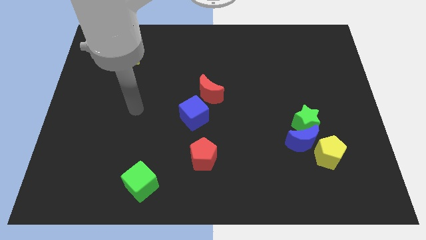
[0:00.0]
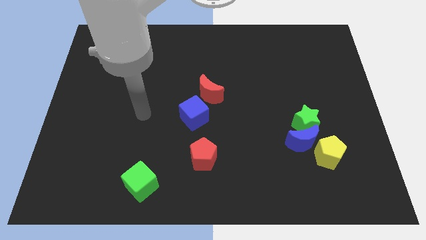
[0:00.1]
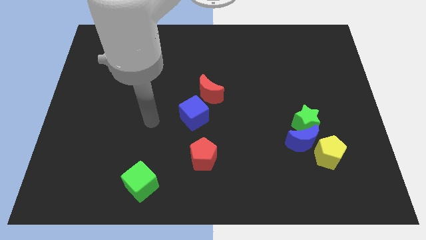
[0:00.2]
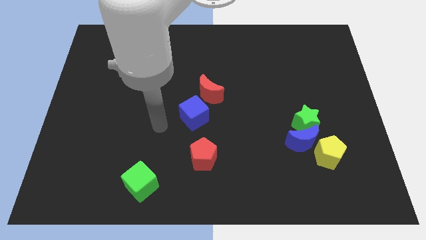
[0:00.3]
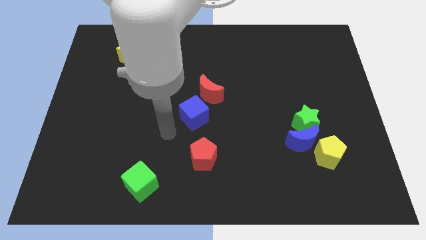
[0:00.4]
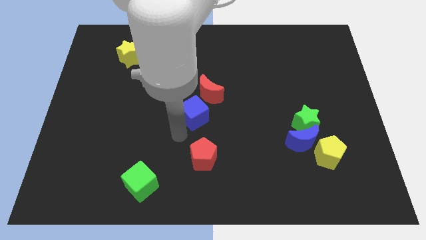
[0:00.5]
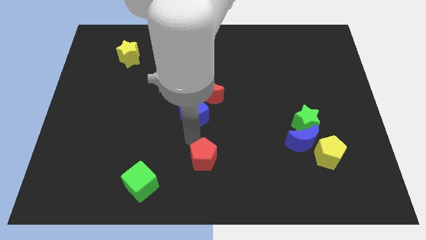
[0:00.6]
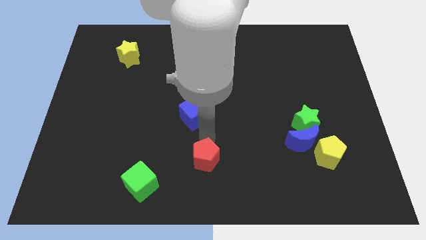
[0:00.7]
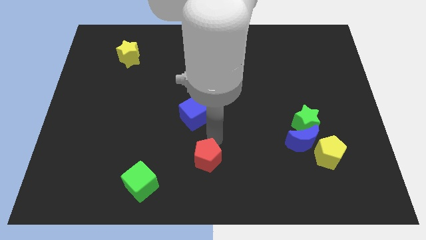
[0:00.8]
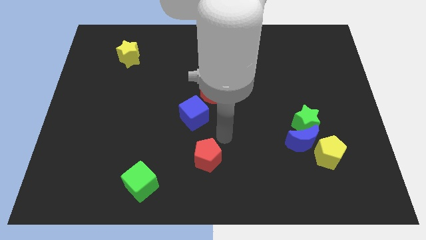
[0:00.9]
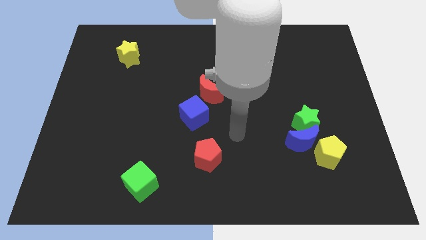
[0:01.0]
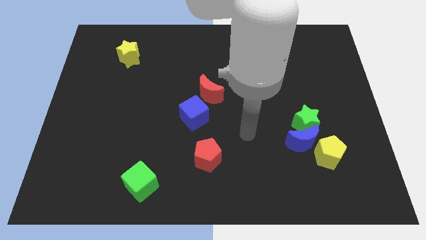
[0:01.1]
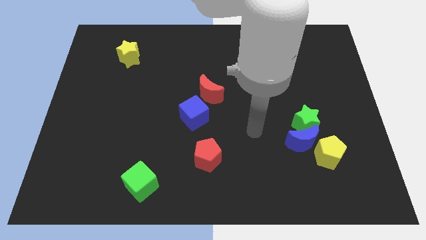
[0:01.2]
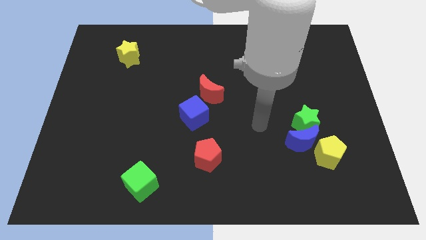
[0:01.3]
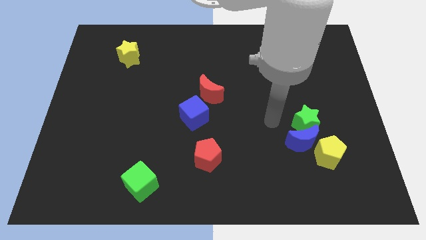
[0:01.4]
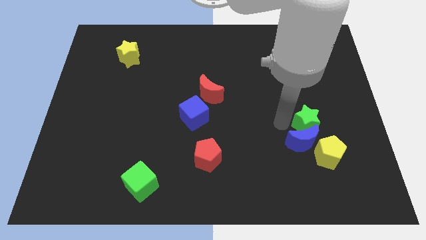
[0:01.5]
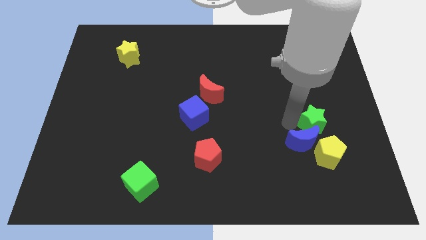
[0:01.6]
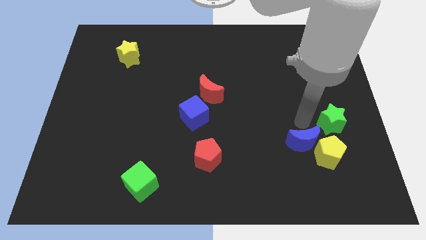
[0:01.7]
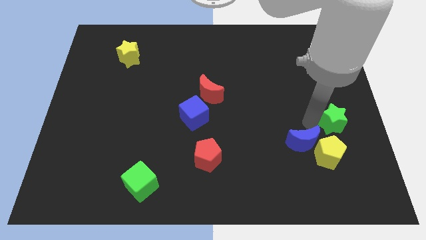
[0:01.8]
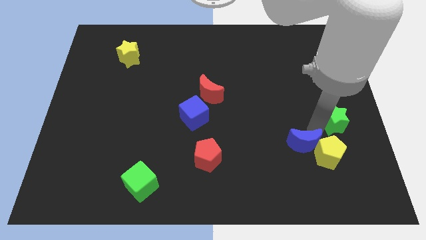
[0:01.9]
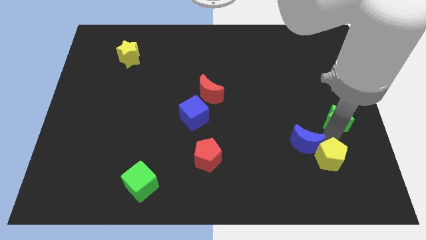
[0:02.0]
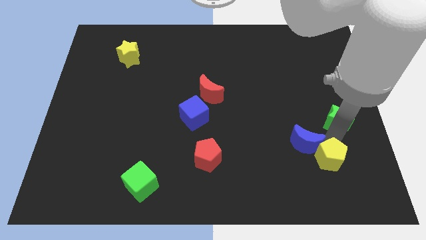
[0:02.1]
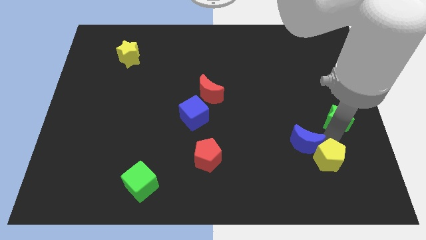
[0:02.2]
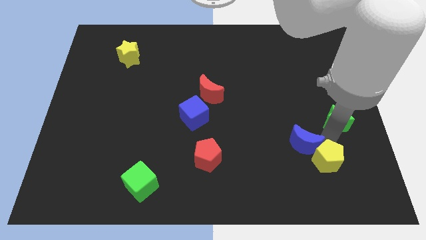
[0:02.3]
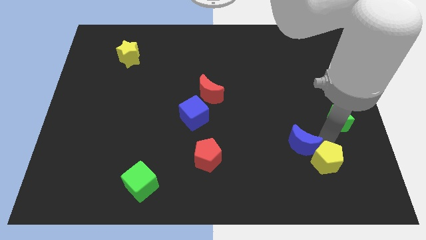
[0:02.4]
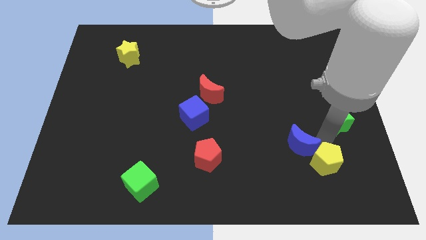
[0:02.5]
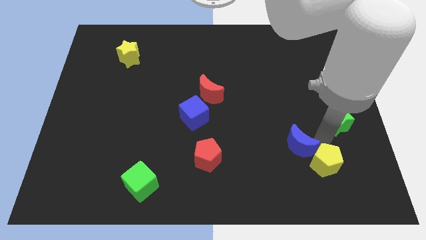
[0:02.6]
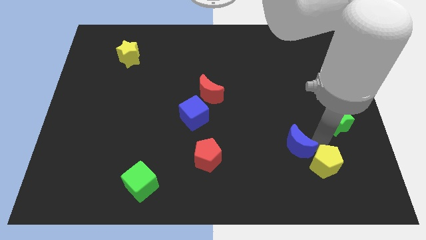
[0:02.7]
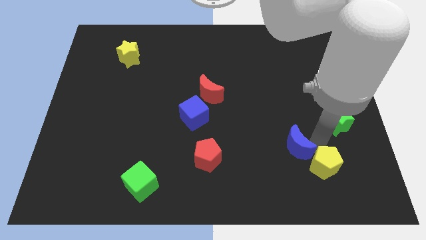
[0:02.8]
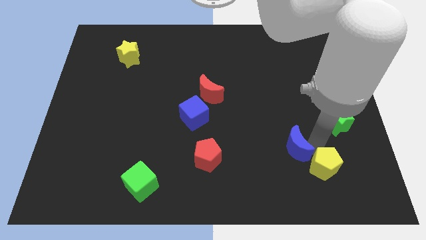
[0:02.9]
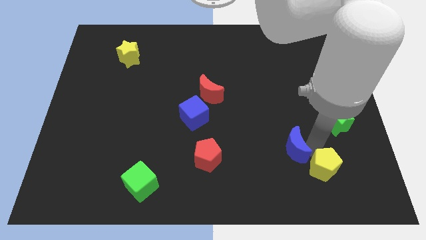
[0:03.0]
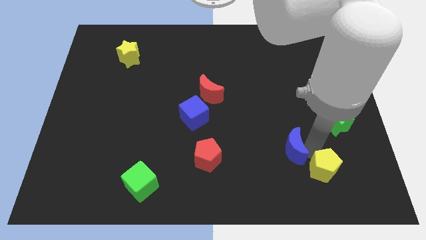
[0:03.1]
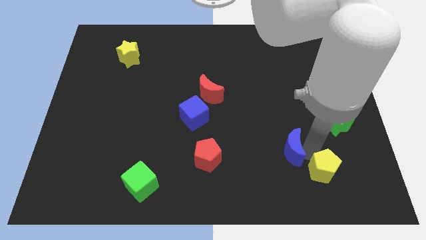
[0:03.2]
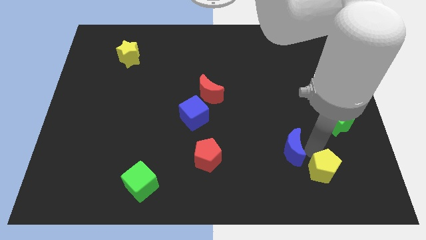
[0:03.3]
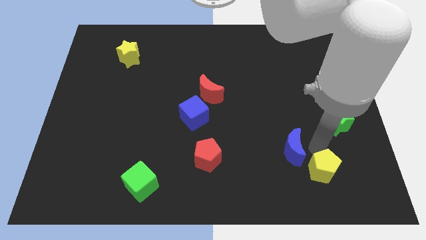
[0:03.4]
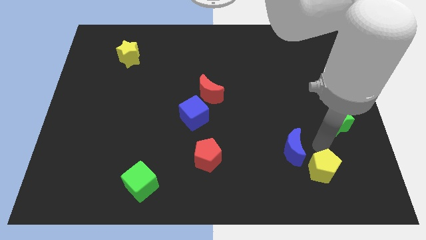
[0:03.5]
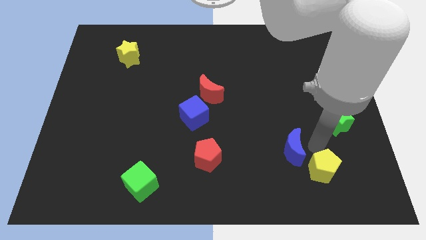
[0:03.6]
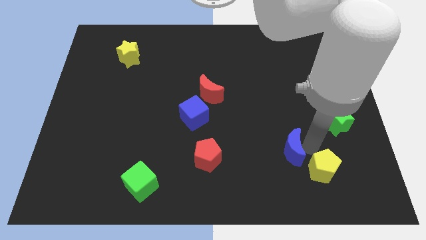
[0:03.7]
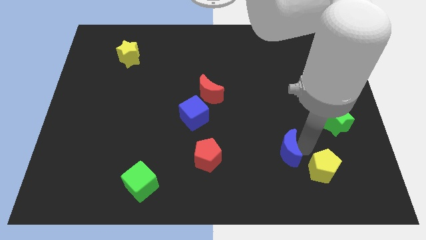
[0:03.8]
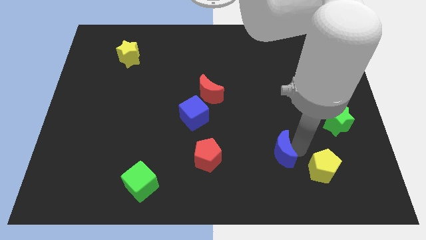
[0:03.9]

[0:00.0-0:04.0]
pull the blue moon apart from the green star and yellow pentagon

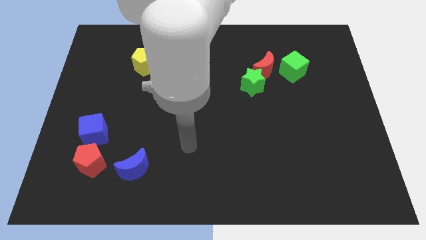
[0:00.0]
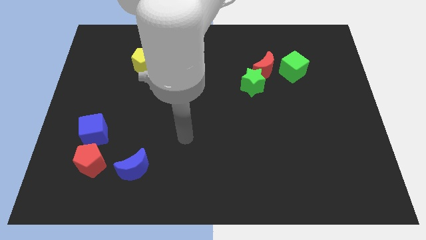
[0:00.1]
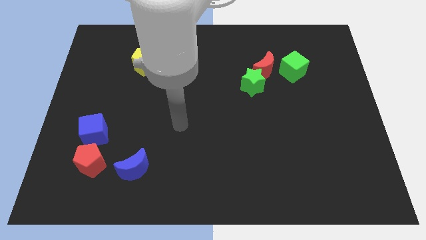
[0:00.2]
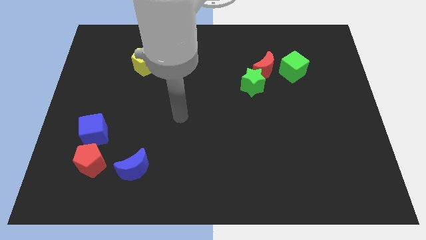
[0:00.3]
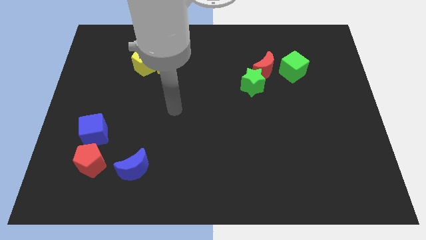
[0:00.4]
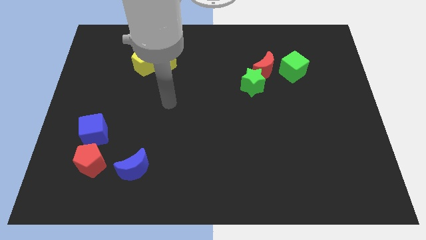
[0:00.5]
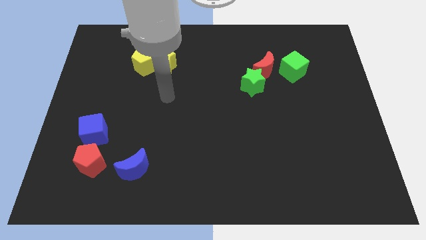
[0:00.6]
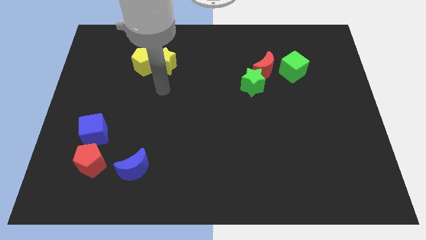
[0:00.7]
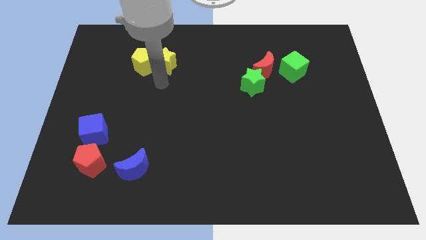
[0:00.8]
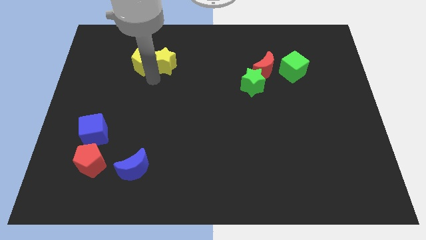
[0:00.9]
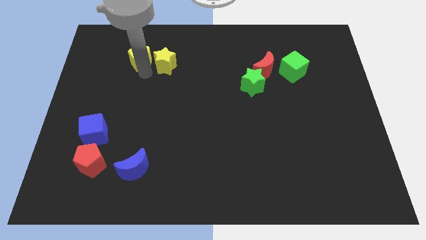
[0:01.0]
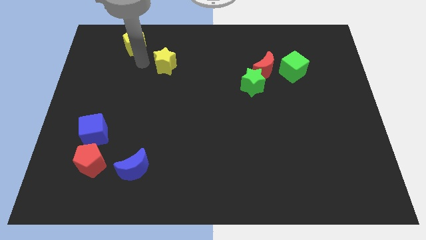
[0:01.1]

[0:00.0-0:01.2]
separate the yellow star from the yellow pentagon

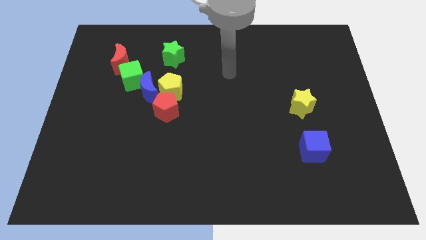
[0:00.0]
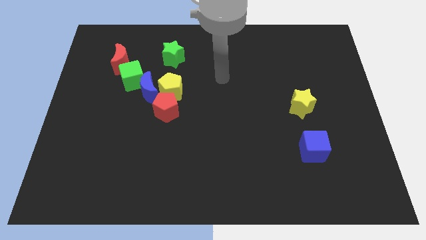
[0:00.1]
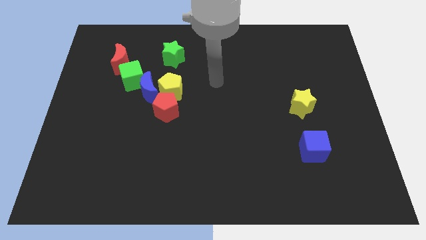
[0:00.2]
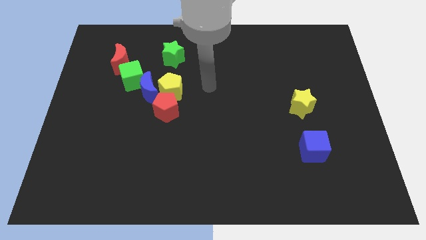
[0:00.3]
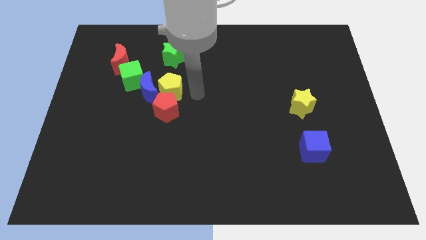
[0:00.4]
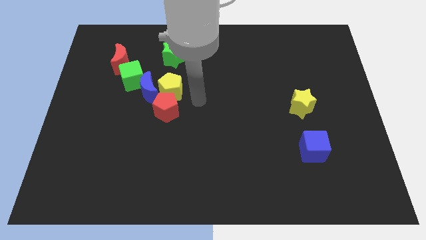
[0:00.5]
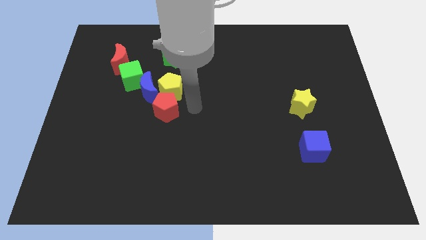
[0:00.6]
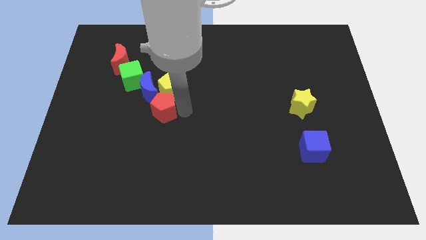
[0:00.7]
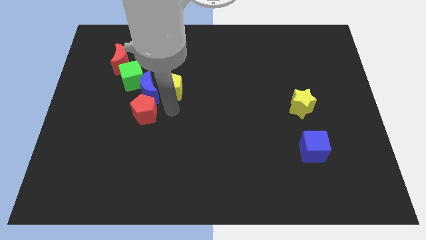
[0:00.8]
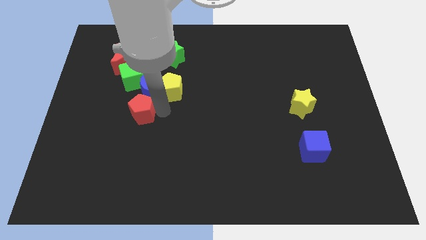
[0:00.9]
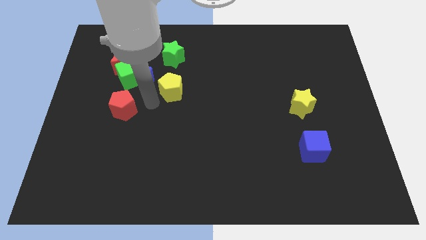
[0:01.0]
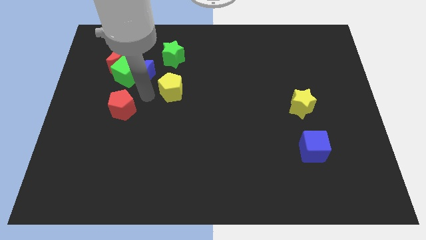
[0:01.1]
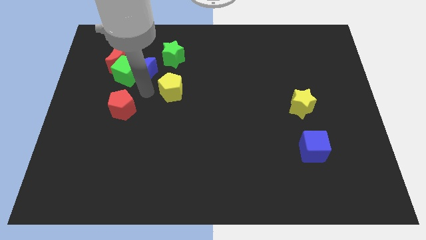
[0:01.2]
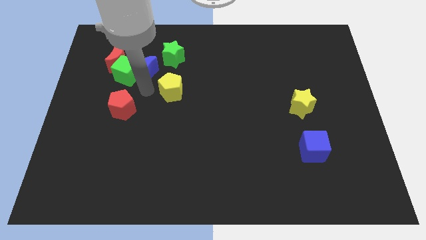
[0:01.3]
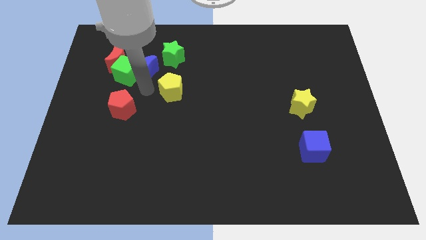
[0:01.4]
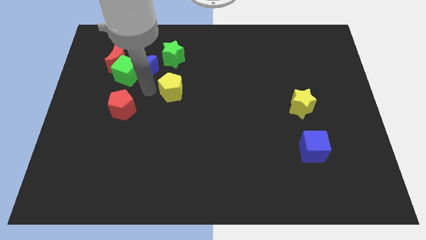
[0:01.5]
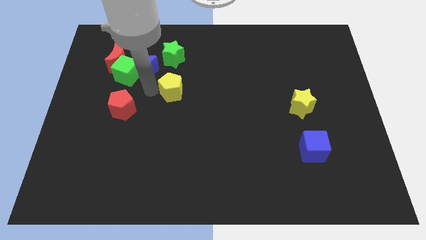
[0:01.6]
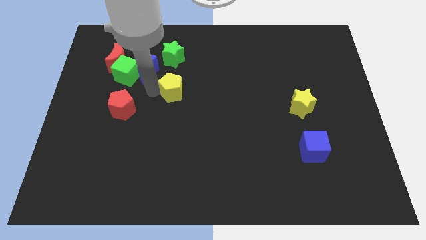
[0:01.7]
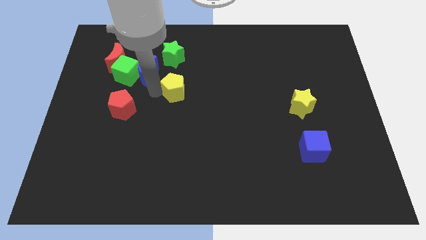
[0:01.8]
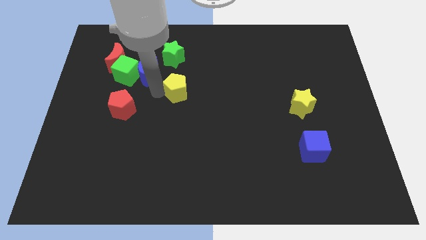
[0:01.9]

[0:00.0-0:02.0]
pull the yellow pentagon apart from the blue moon and red pentagon

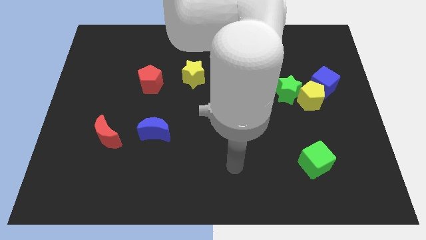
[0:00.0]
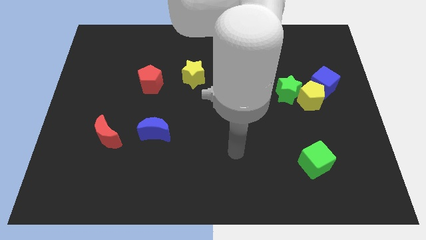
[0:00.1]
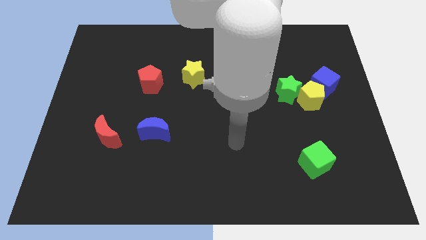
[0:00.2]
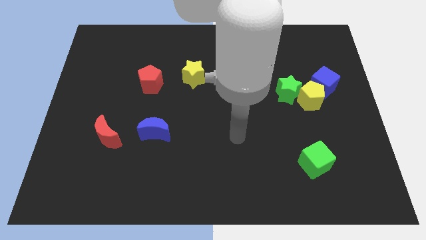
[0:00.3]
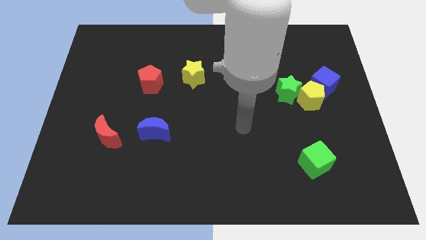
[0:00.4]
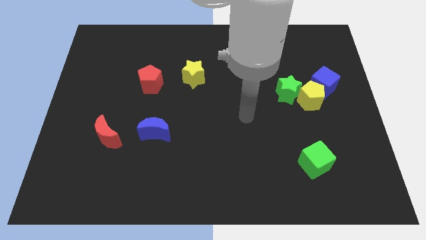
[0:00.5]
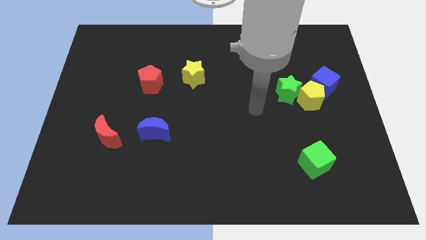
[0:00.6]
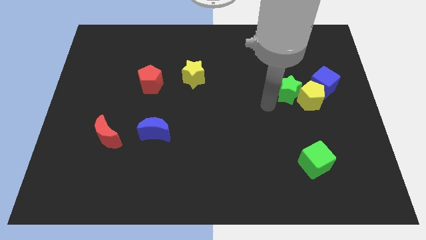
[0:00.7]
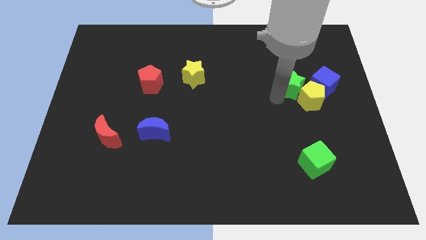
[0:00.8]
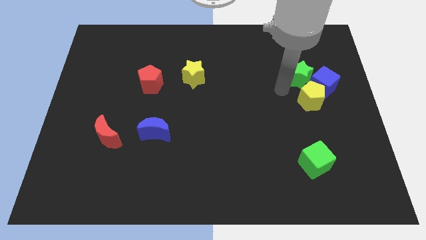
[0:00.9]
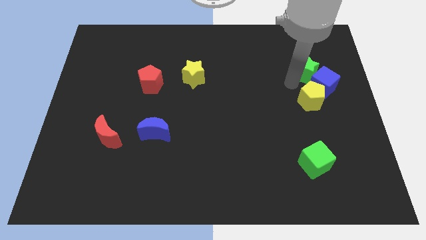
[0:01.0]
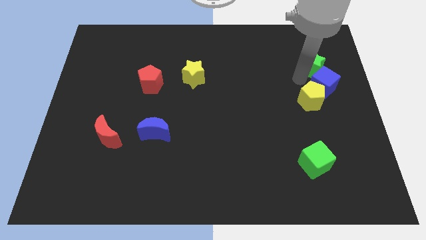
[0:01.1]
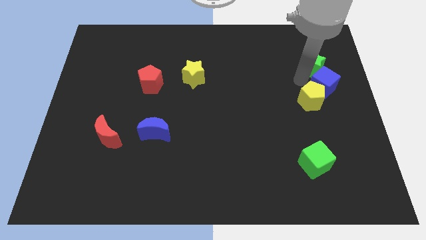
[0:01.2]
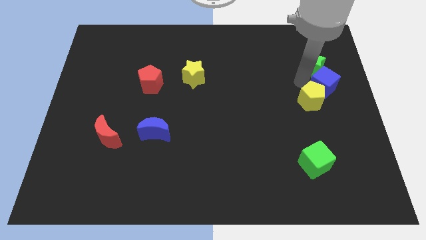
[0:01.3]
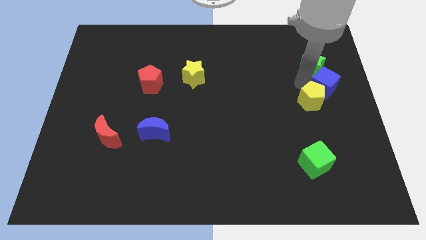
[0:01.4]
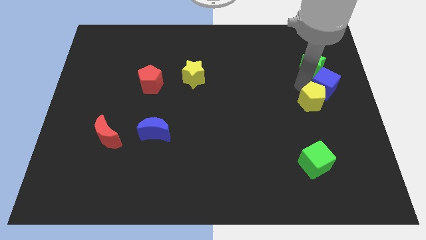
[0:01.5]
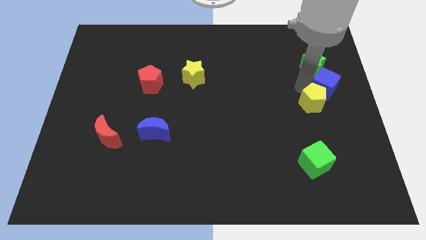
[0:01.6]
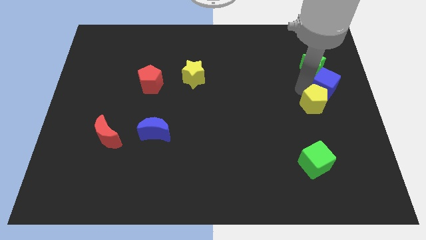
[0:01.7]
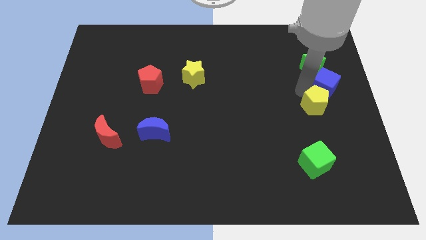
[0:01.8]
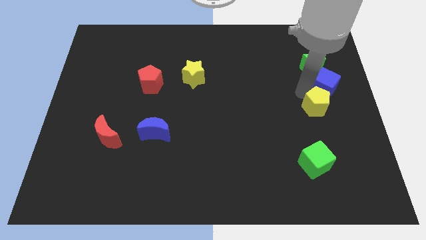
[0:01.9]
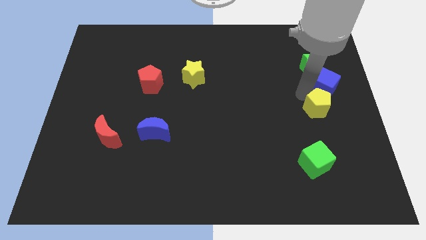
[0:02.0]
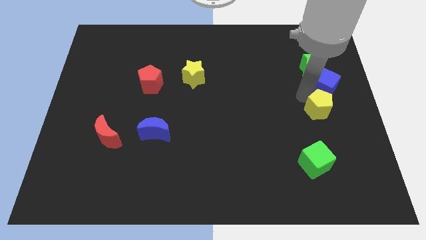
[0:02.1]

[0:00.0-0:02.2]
separate the yellow pentagon from the blue cube and green star
